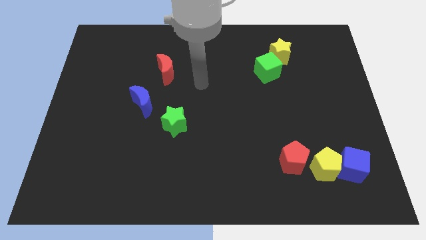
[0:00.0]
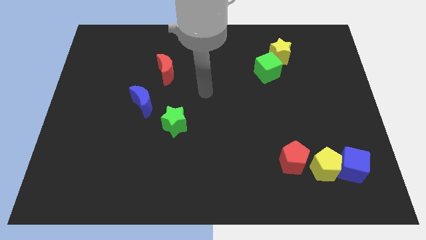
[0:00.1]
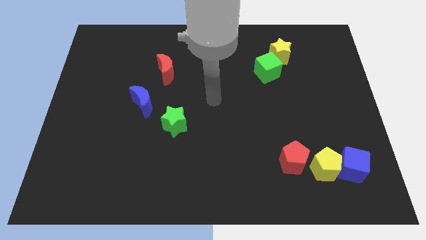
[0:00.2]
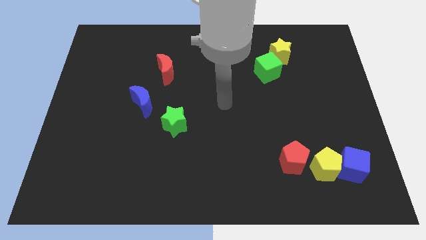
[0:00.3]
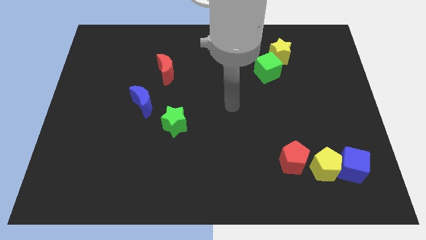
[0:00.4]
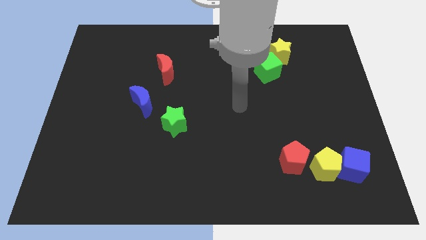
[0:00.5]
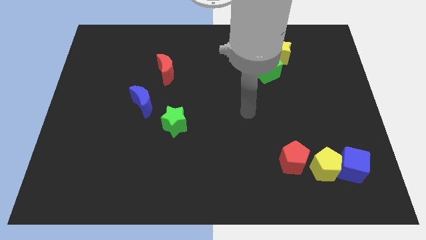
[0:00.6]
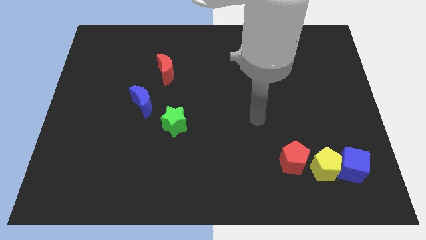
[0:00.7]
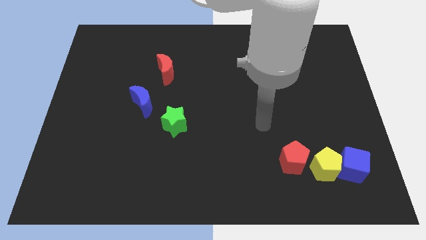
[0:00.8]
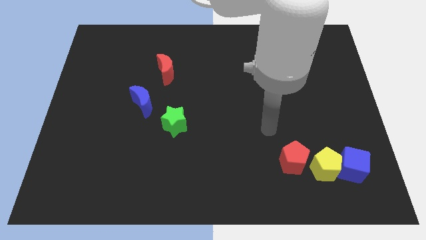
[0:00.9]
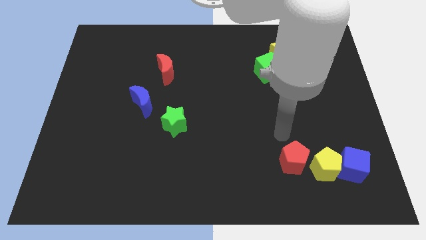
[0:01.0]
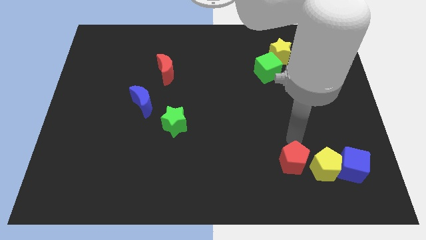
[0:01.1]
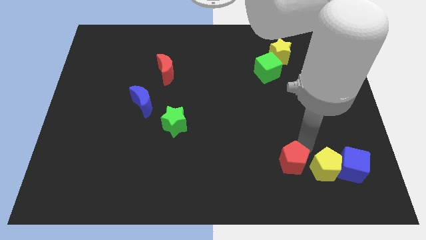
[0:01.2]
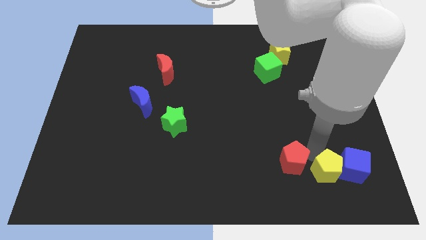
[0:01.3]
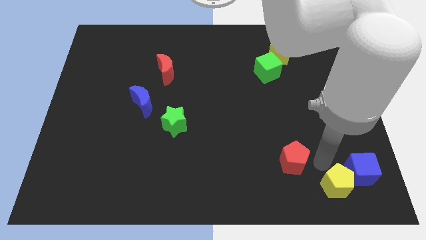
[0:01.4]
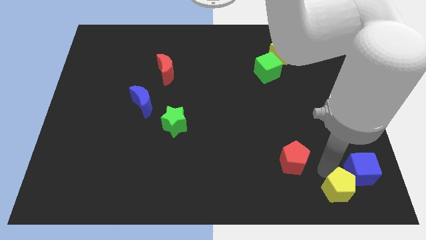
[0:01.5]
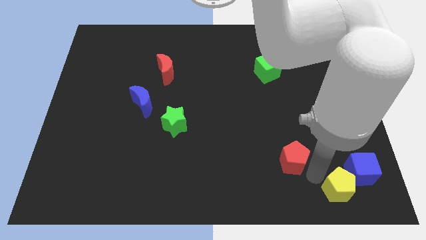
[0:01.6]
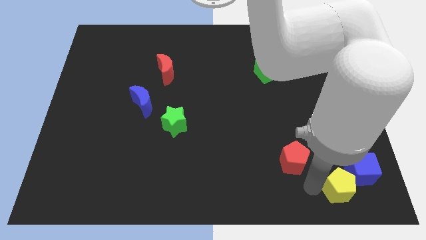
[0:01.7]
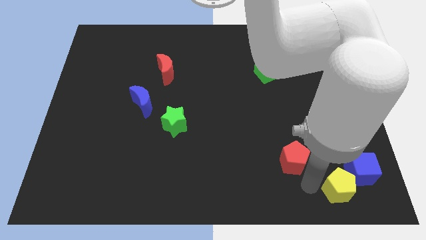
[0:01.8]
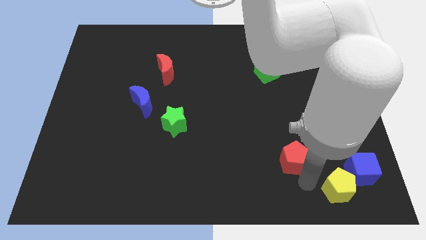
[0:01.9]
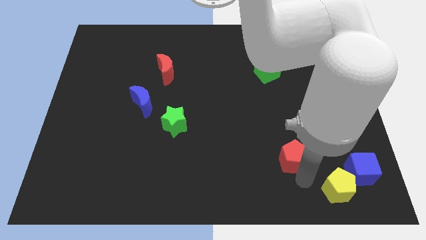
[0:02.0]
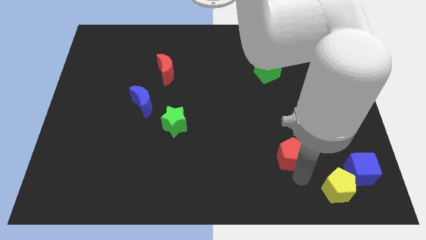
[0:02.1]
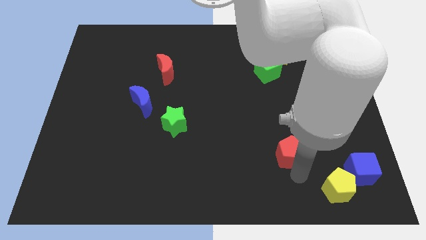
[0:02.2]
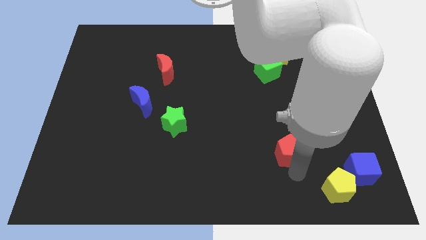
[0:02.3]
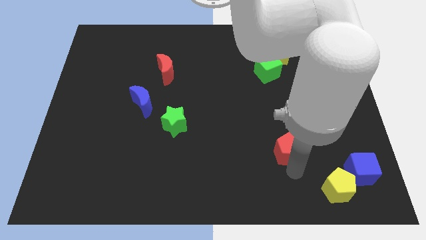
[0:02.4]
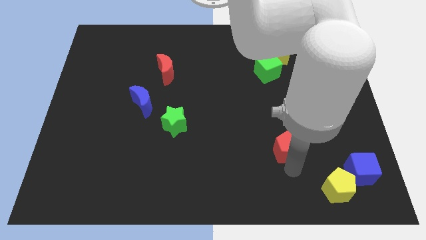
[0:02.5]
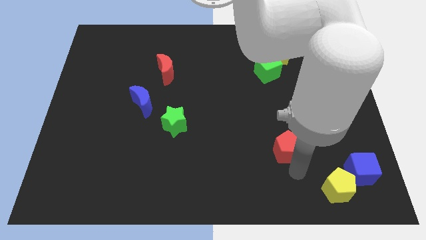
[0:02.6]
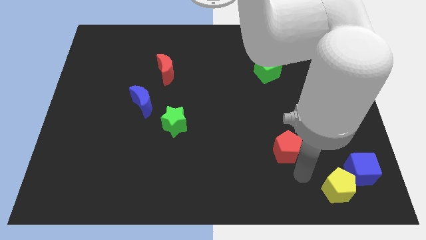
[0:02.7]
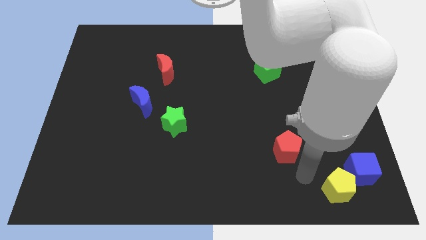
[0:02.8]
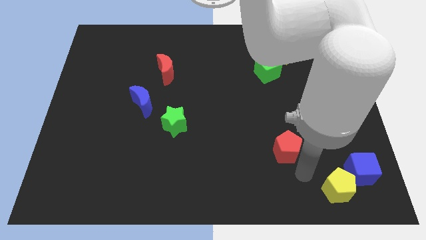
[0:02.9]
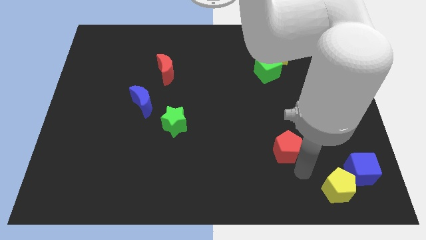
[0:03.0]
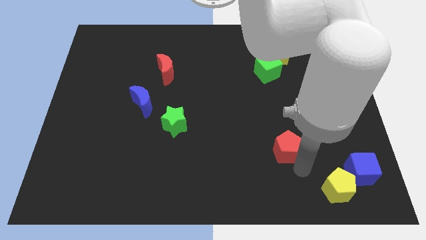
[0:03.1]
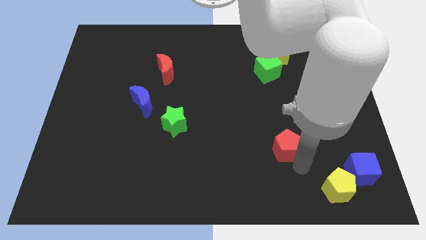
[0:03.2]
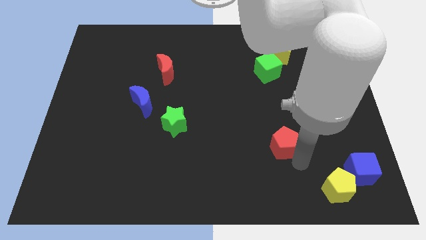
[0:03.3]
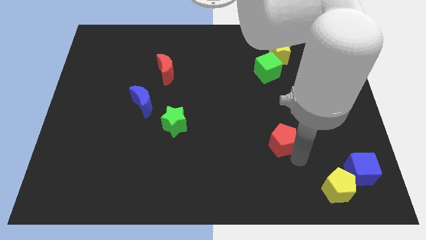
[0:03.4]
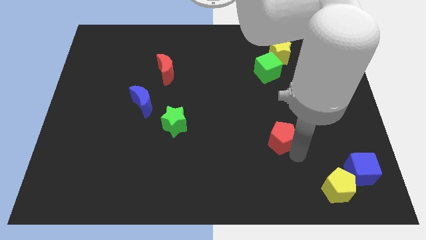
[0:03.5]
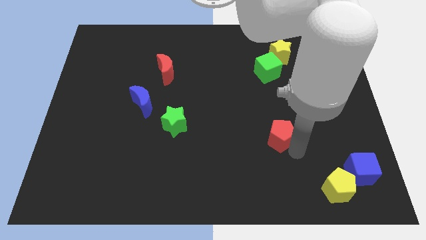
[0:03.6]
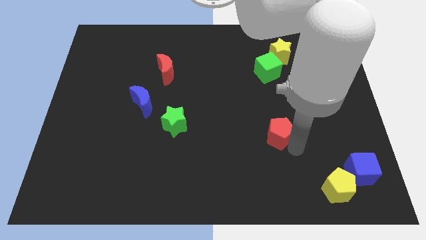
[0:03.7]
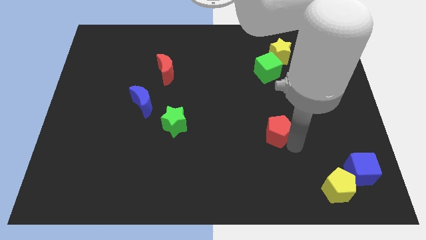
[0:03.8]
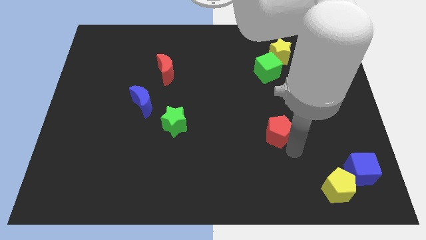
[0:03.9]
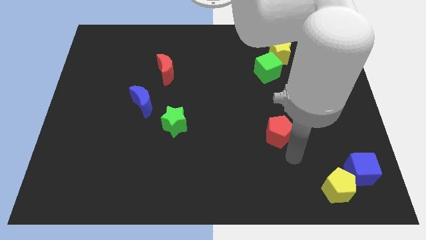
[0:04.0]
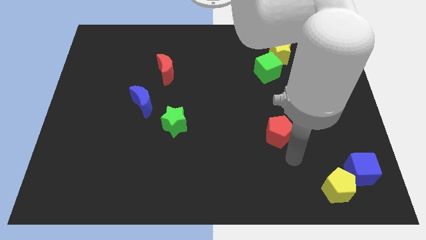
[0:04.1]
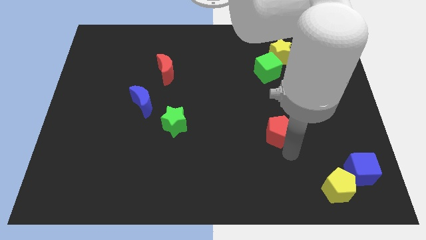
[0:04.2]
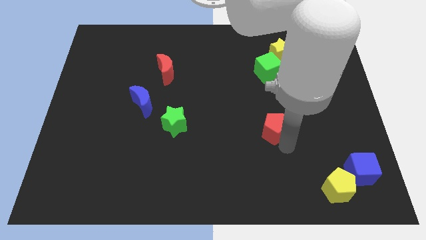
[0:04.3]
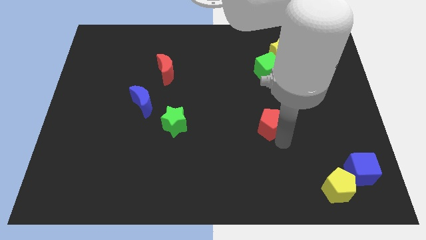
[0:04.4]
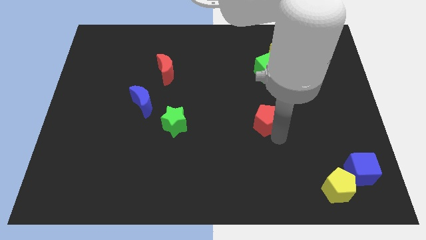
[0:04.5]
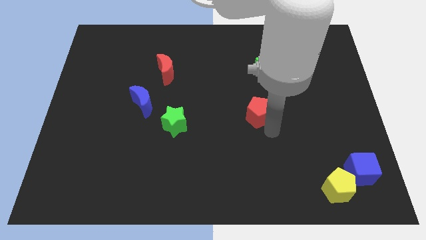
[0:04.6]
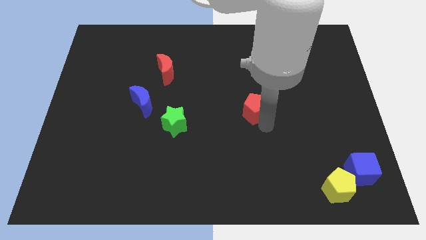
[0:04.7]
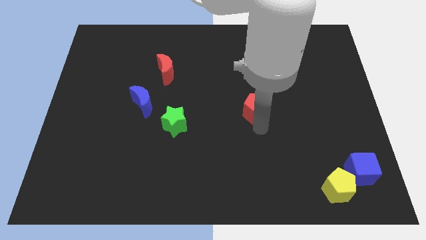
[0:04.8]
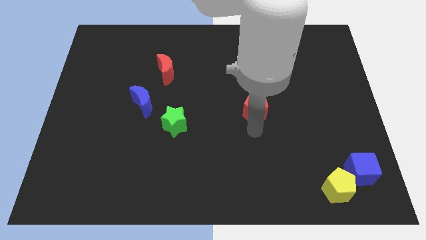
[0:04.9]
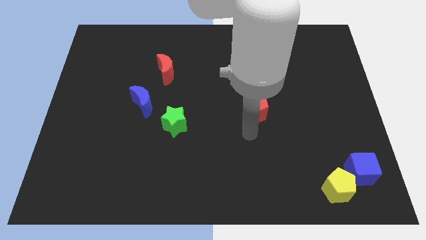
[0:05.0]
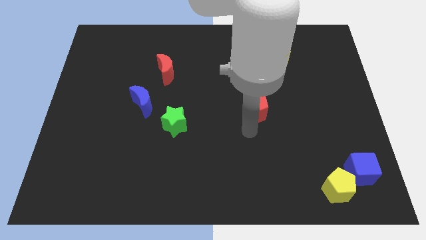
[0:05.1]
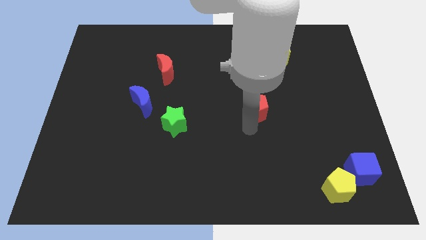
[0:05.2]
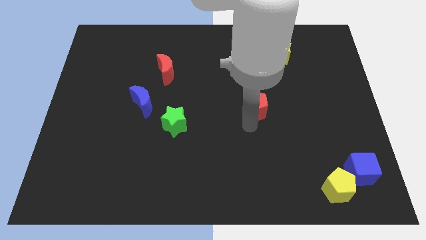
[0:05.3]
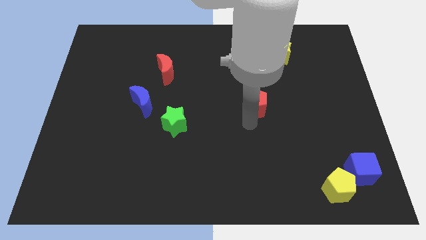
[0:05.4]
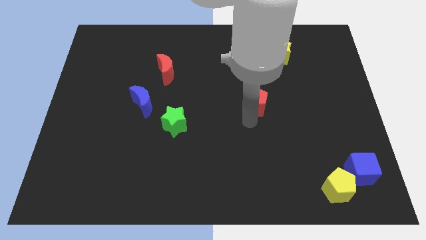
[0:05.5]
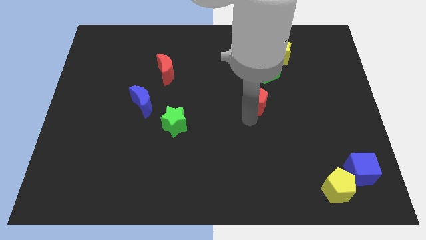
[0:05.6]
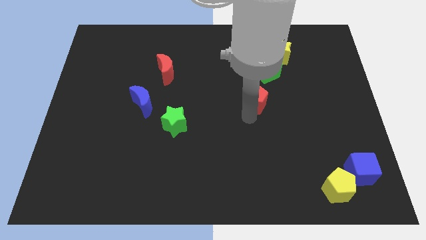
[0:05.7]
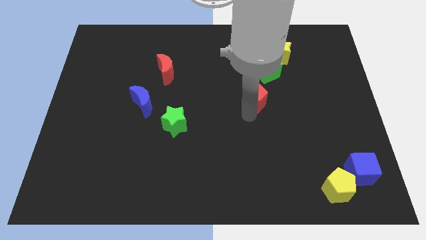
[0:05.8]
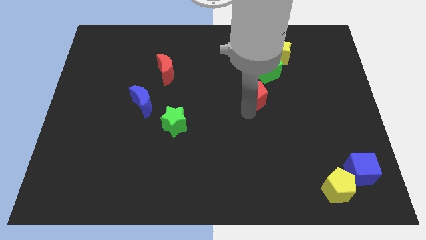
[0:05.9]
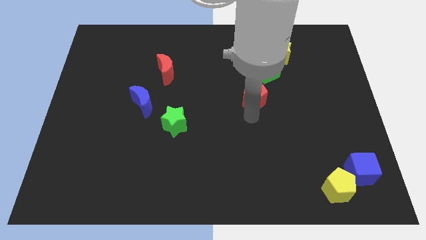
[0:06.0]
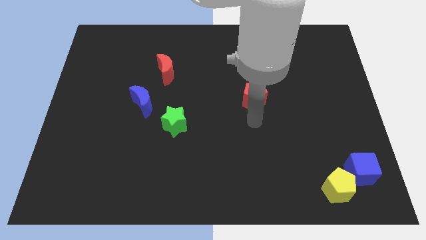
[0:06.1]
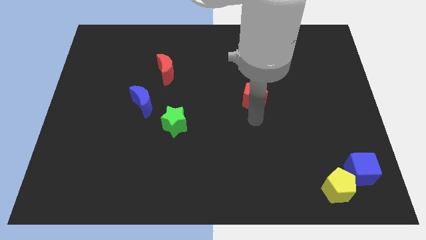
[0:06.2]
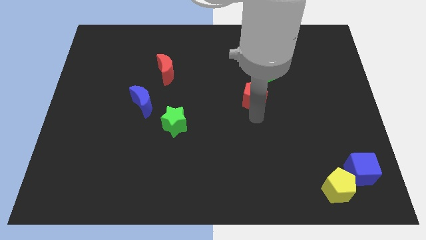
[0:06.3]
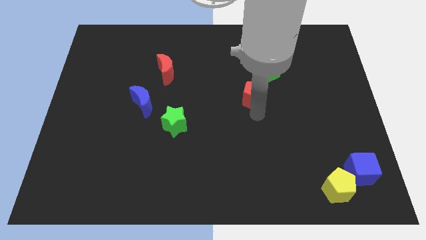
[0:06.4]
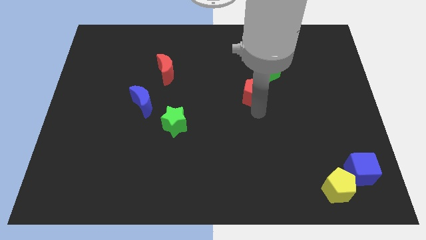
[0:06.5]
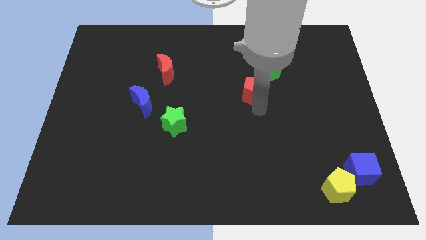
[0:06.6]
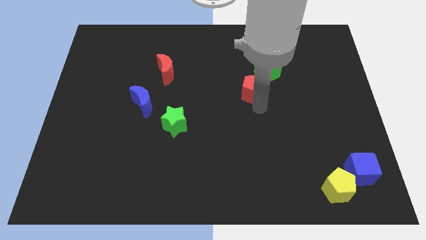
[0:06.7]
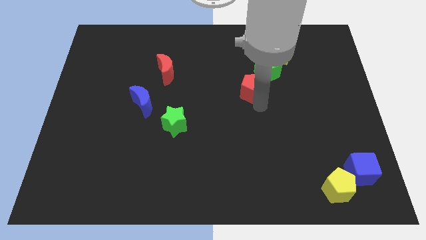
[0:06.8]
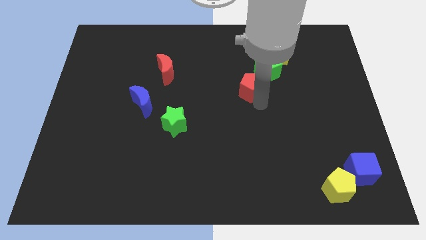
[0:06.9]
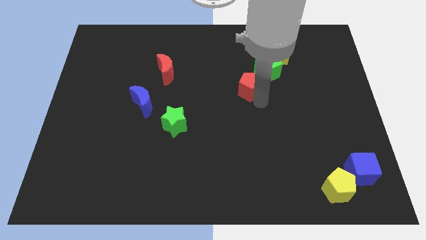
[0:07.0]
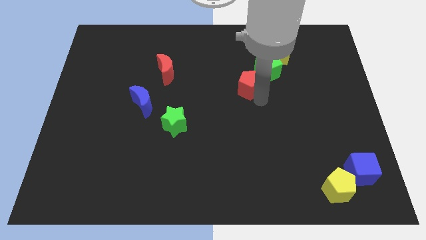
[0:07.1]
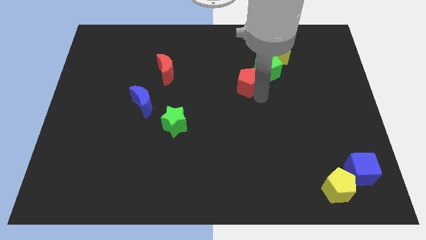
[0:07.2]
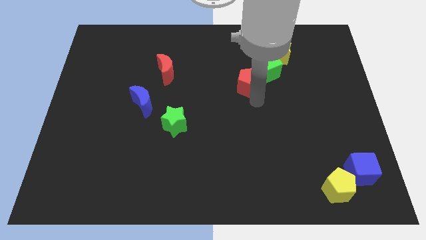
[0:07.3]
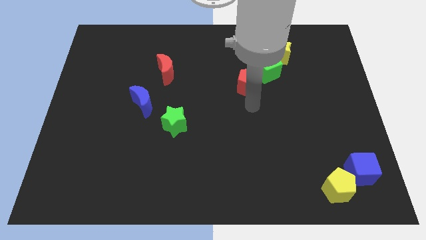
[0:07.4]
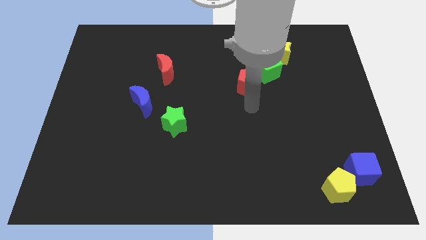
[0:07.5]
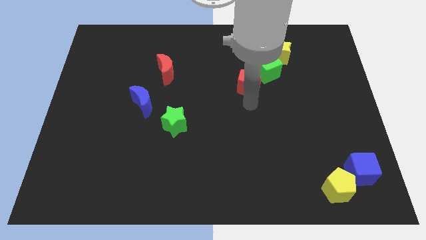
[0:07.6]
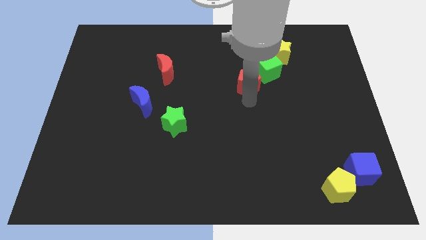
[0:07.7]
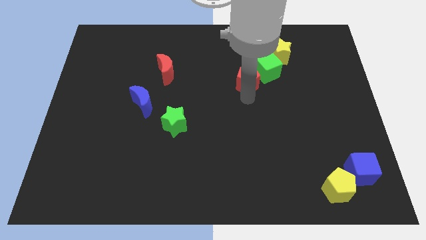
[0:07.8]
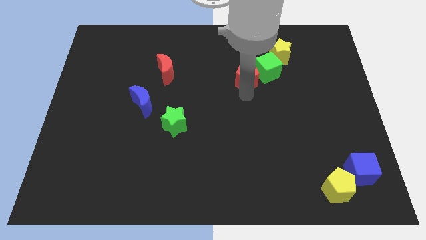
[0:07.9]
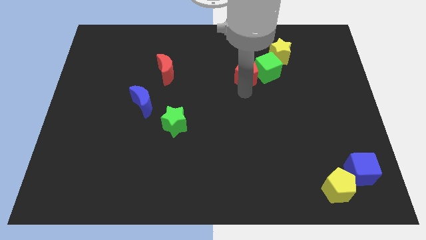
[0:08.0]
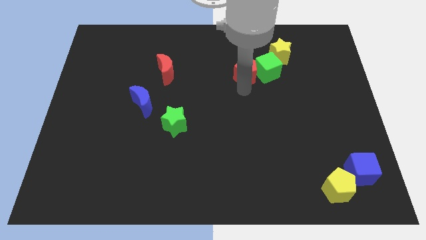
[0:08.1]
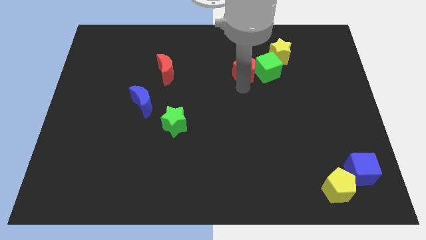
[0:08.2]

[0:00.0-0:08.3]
move the red pentagon to the top left side of the green cube

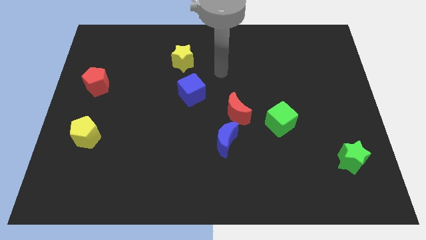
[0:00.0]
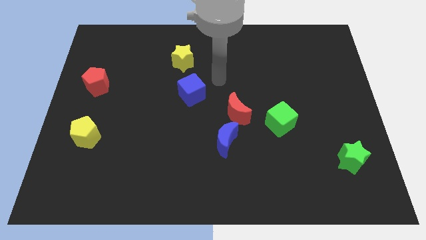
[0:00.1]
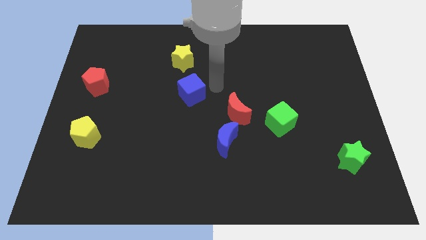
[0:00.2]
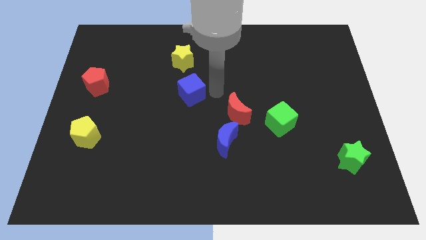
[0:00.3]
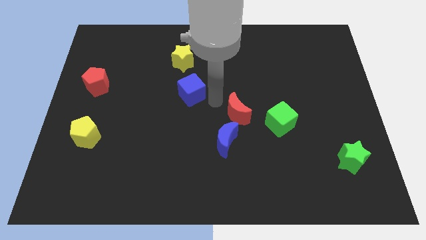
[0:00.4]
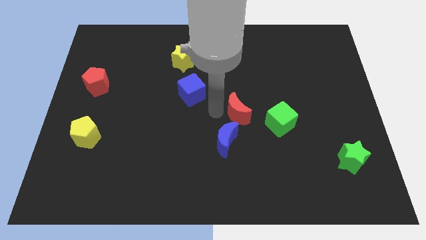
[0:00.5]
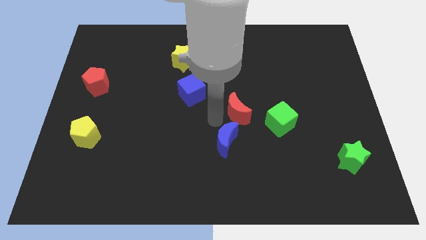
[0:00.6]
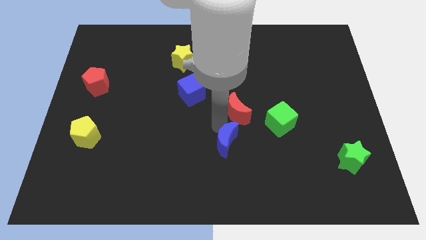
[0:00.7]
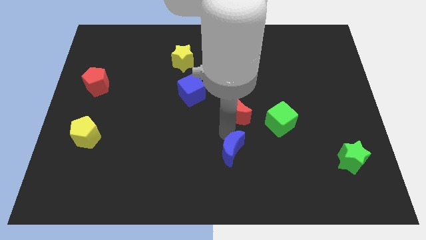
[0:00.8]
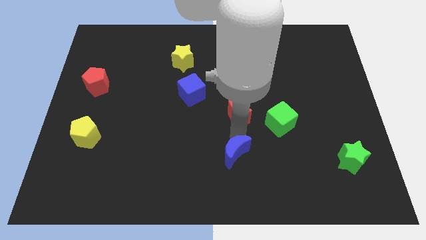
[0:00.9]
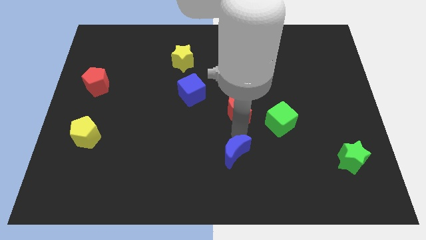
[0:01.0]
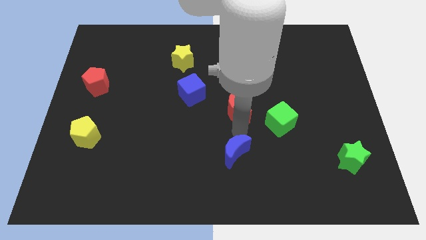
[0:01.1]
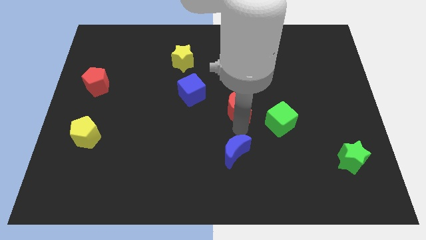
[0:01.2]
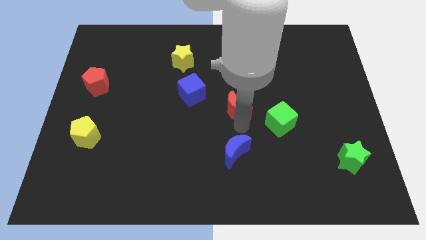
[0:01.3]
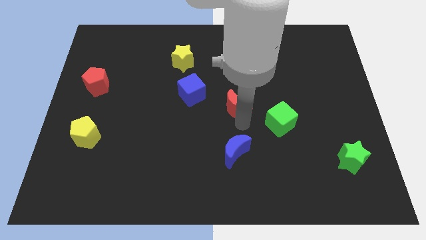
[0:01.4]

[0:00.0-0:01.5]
move the red moon just right of the blue cube
